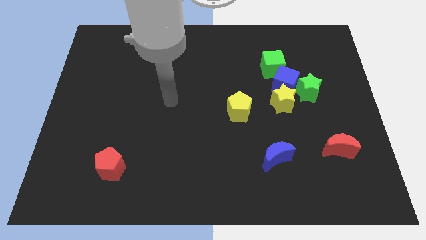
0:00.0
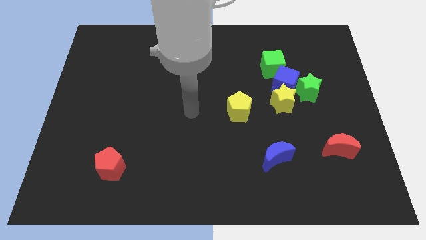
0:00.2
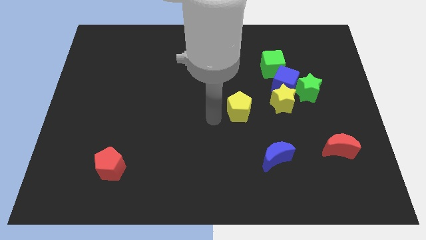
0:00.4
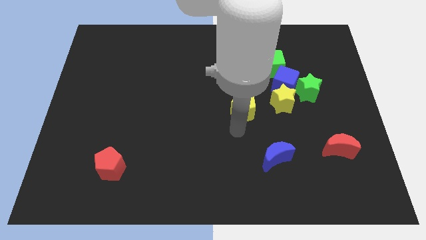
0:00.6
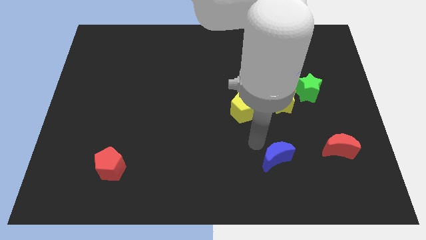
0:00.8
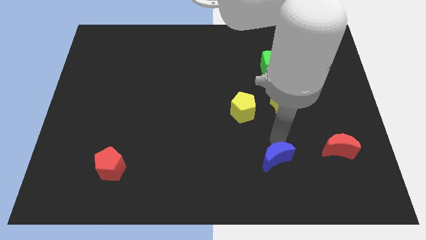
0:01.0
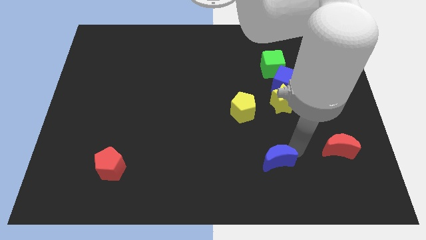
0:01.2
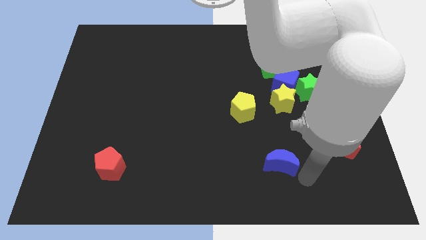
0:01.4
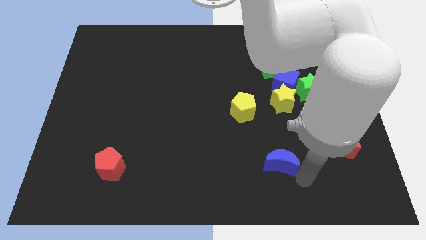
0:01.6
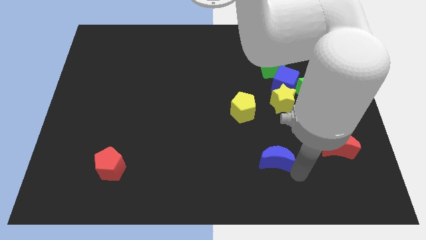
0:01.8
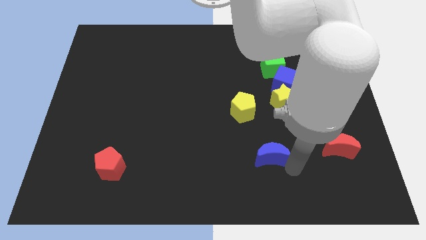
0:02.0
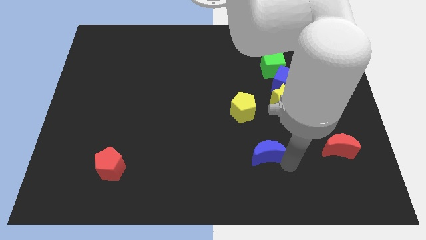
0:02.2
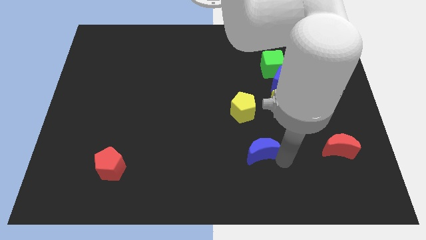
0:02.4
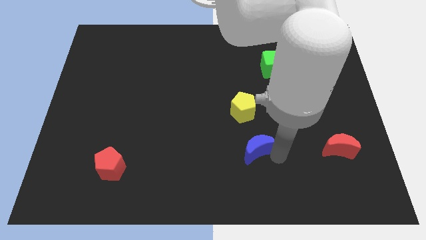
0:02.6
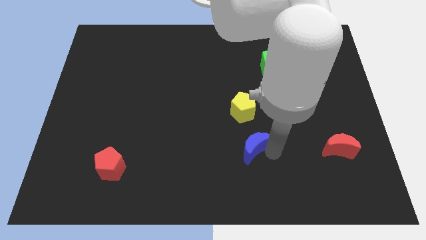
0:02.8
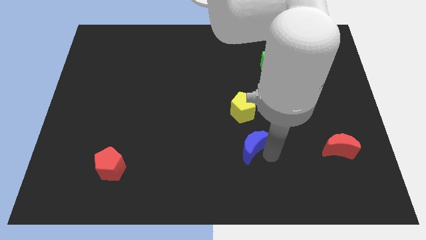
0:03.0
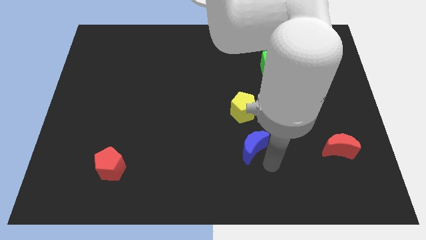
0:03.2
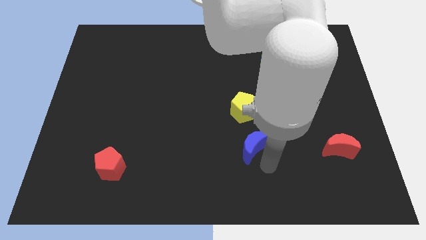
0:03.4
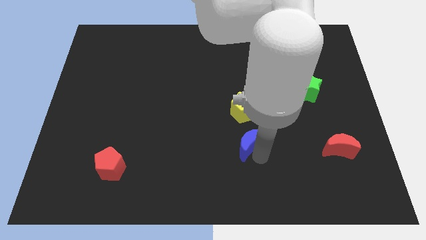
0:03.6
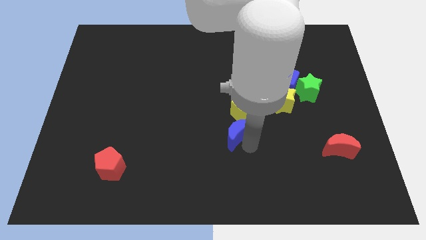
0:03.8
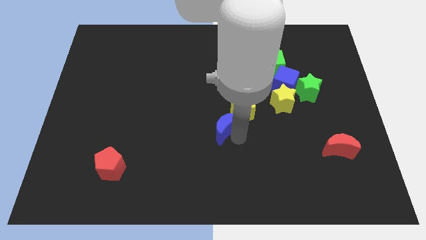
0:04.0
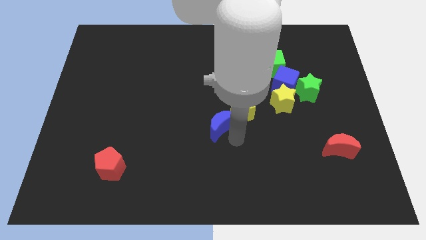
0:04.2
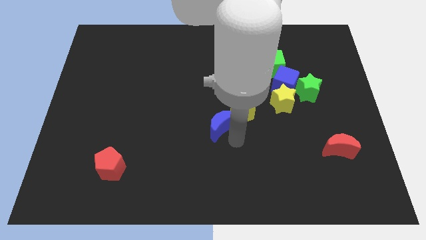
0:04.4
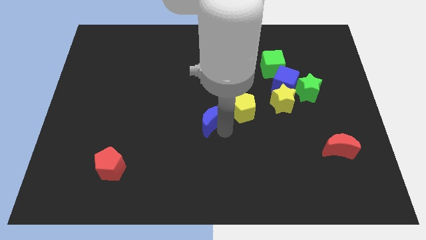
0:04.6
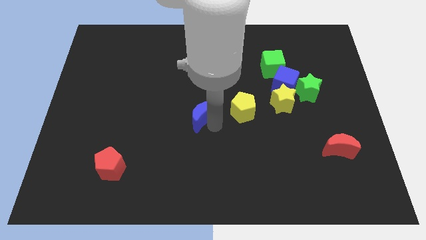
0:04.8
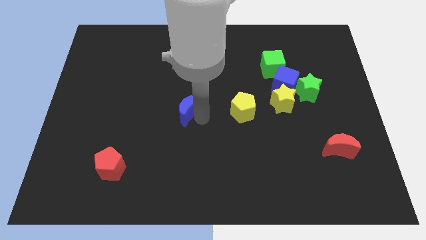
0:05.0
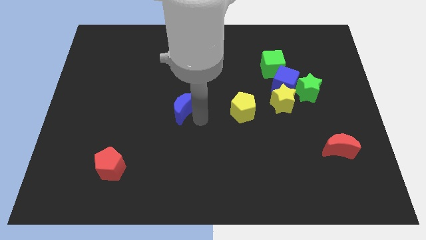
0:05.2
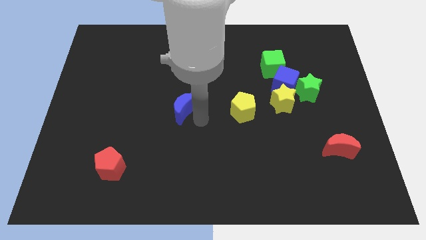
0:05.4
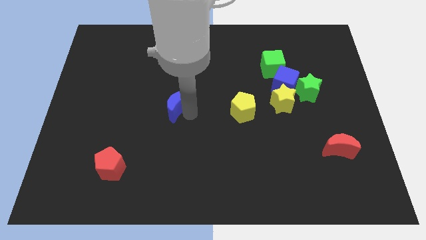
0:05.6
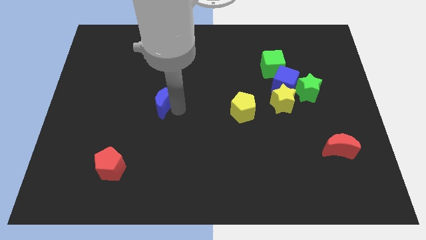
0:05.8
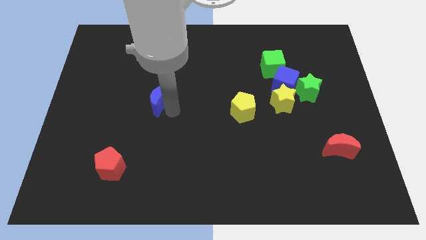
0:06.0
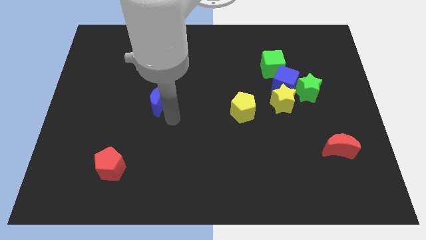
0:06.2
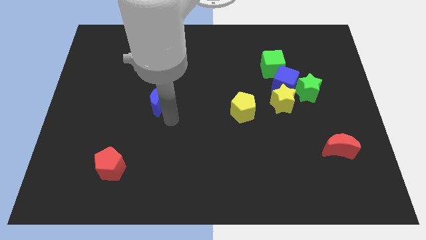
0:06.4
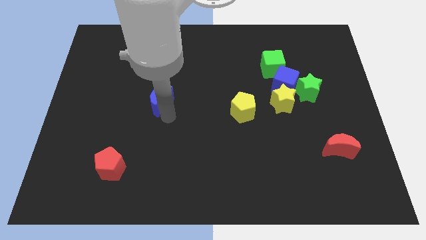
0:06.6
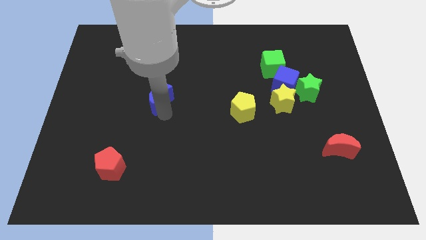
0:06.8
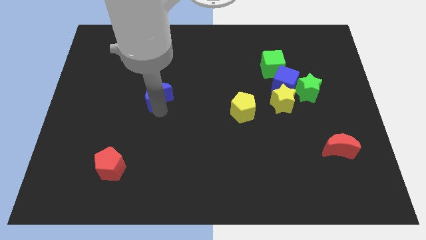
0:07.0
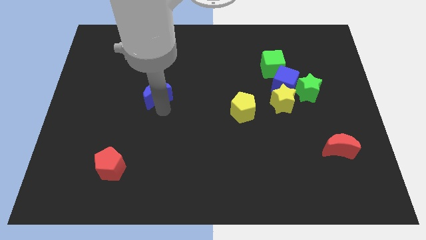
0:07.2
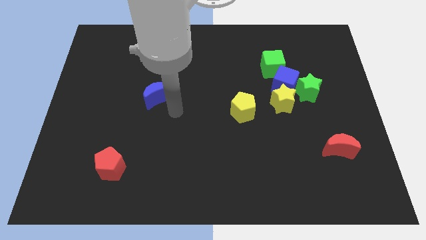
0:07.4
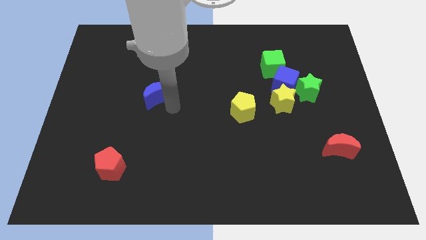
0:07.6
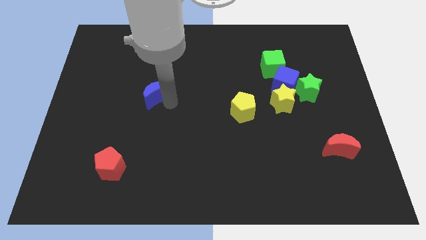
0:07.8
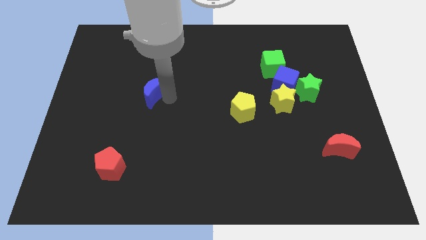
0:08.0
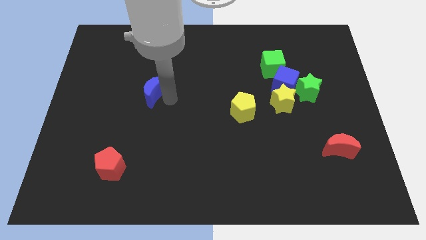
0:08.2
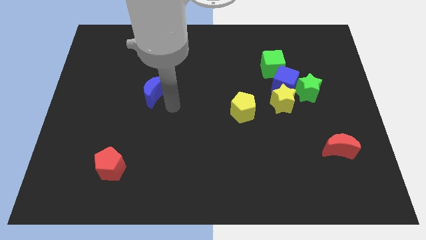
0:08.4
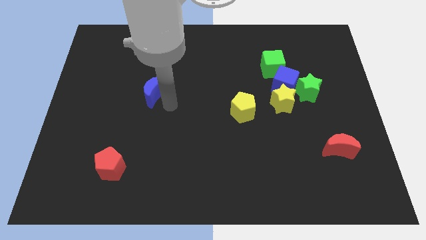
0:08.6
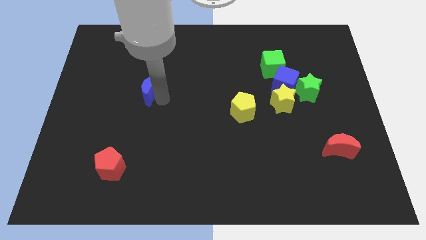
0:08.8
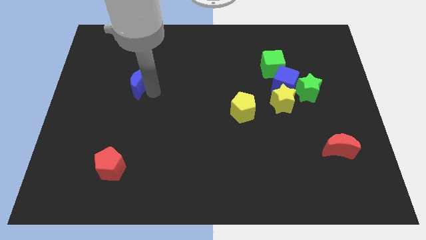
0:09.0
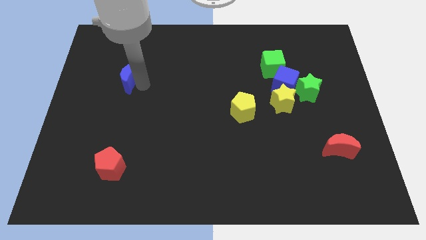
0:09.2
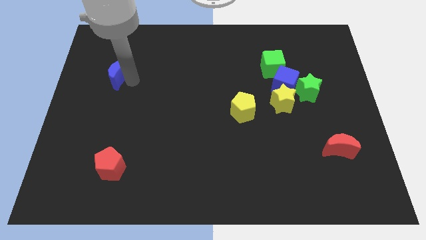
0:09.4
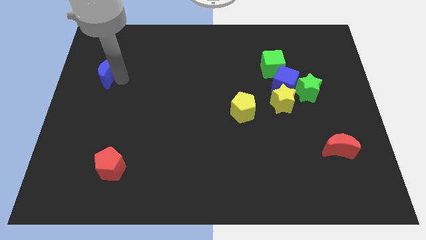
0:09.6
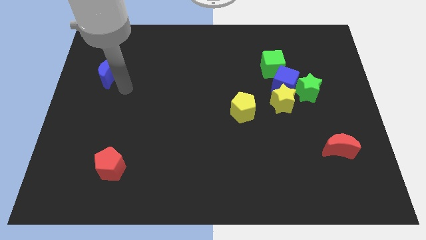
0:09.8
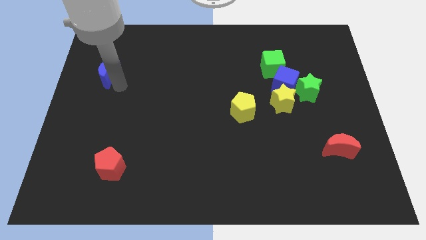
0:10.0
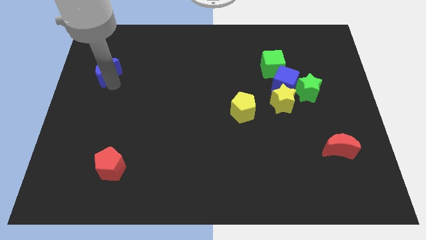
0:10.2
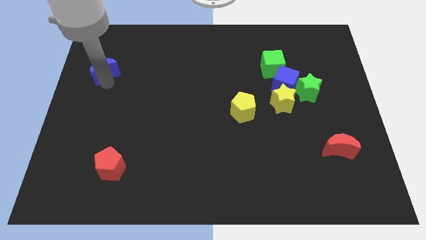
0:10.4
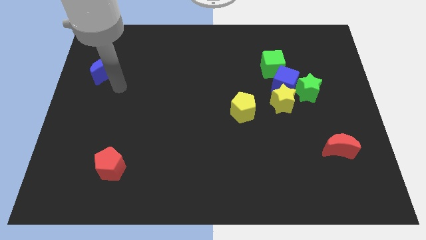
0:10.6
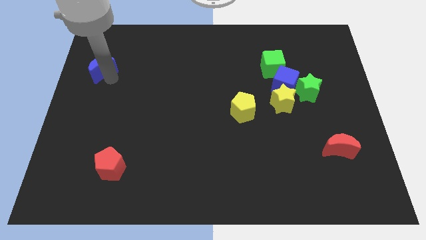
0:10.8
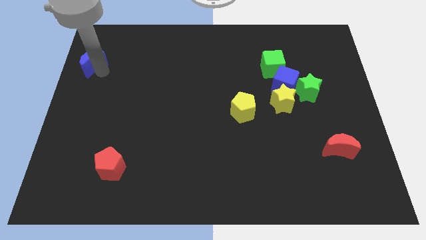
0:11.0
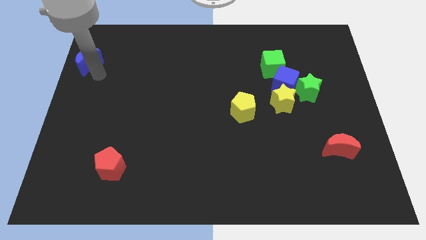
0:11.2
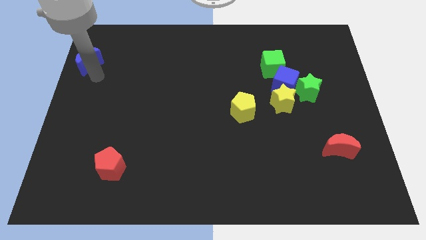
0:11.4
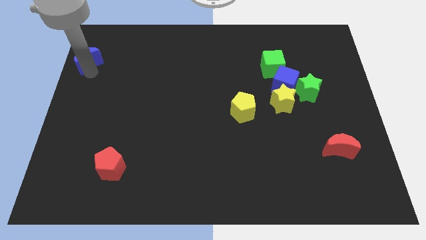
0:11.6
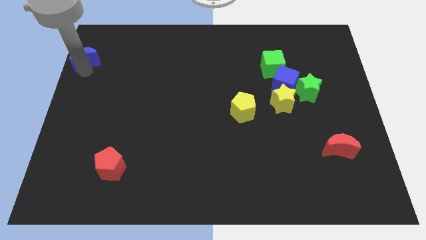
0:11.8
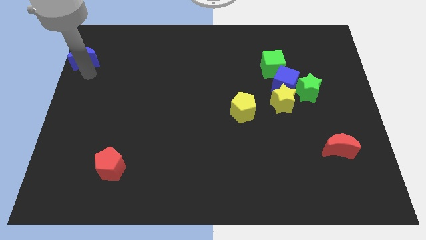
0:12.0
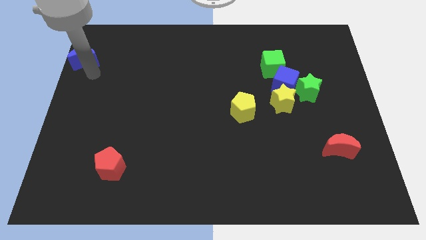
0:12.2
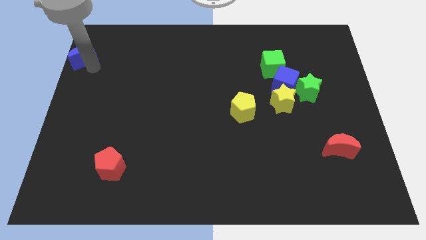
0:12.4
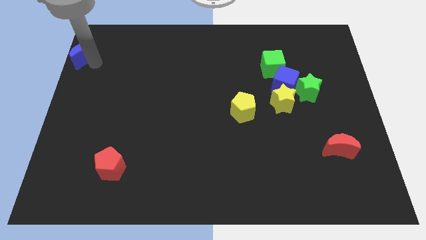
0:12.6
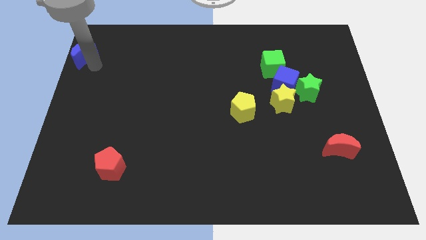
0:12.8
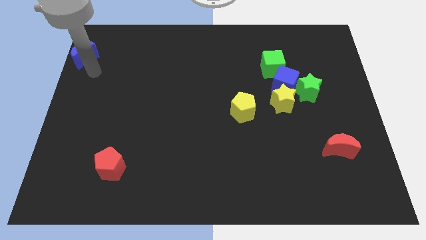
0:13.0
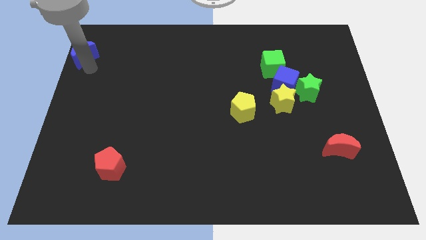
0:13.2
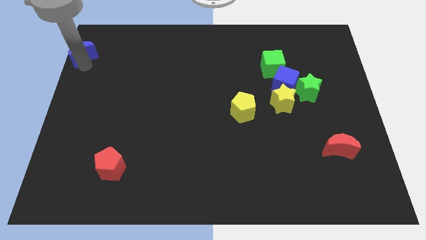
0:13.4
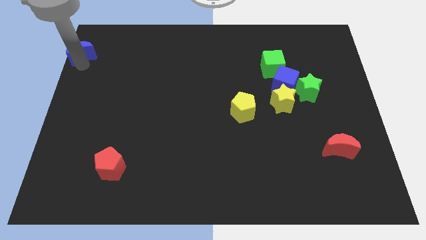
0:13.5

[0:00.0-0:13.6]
put the blue moon to the top left corner
